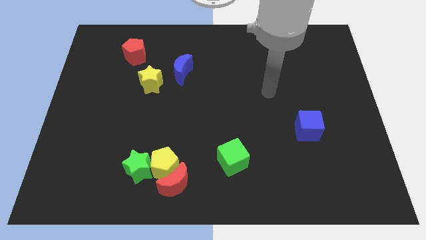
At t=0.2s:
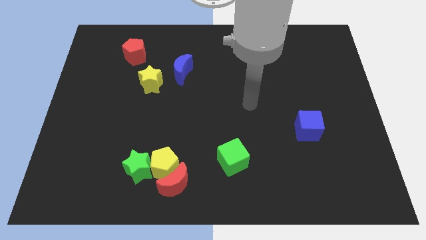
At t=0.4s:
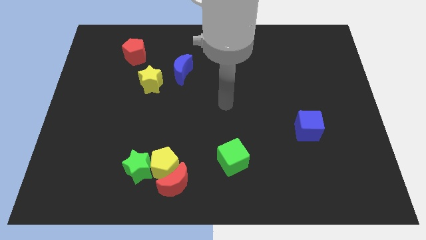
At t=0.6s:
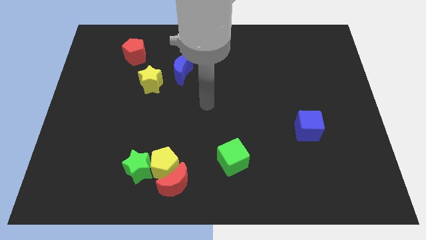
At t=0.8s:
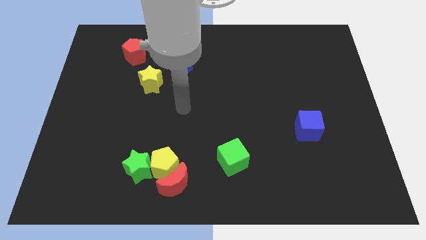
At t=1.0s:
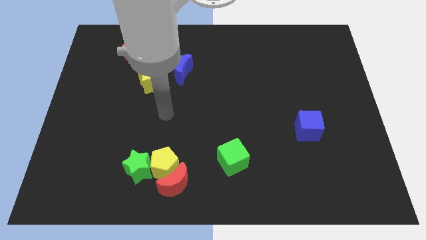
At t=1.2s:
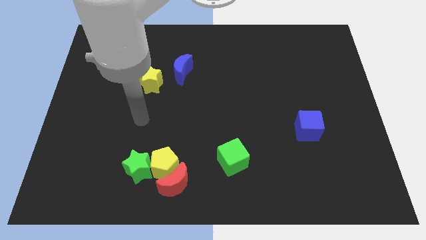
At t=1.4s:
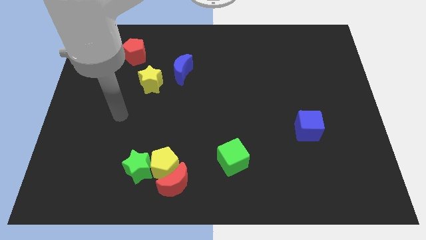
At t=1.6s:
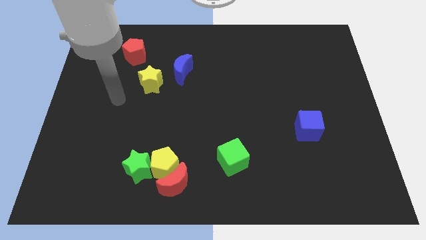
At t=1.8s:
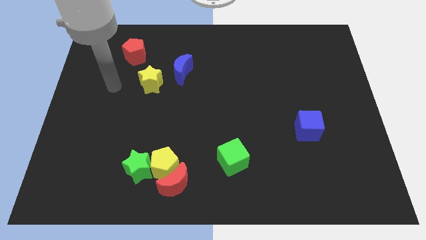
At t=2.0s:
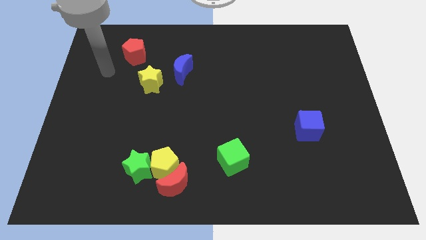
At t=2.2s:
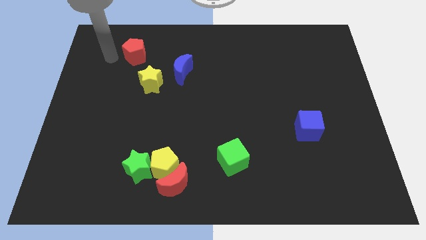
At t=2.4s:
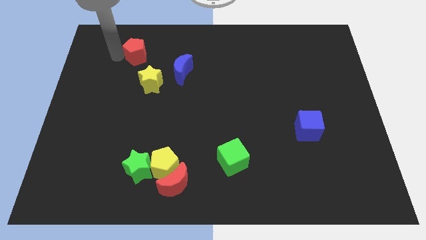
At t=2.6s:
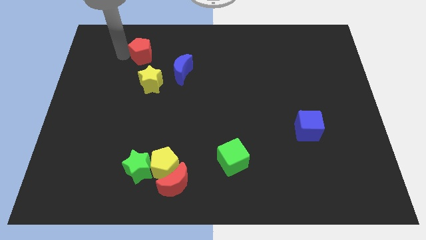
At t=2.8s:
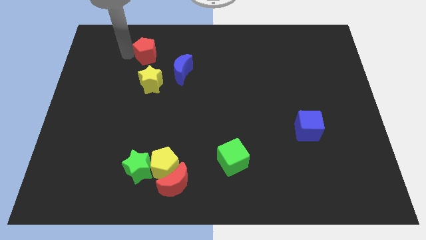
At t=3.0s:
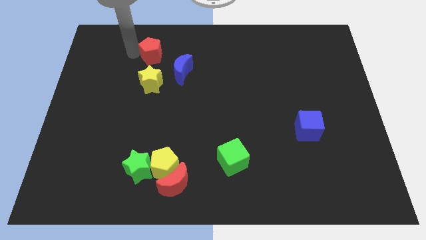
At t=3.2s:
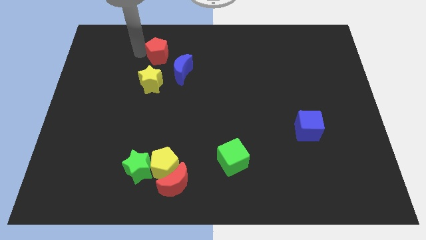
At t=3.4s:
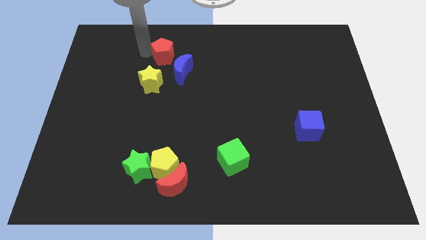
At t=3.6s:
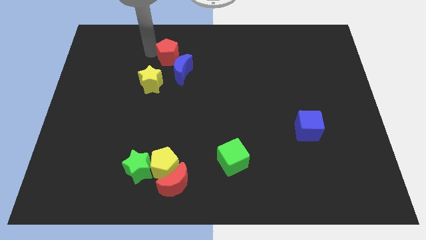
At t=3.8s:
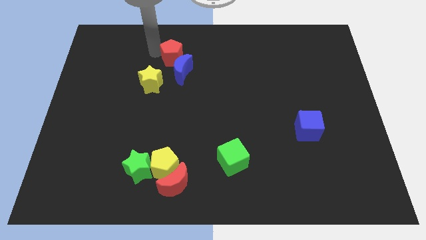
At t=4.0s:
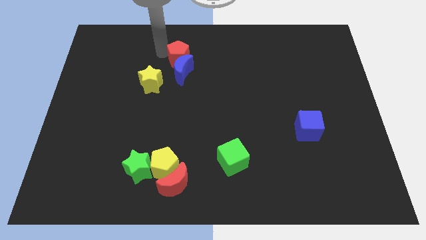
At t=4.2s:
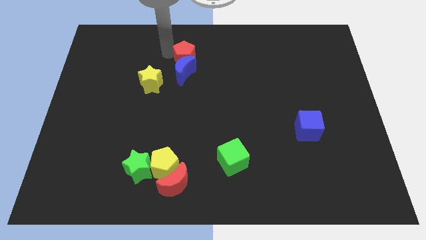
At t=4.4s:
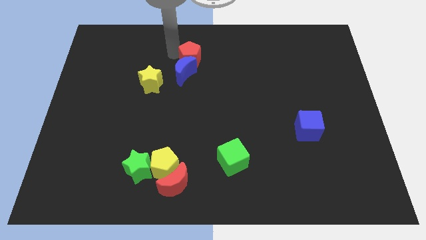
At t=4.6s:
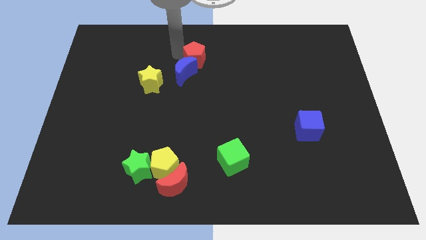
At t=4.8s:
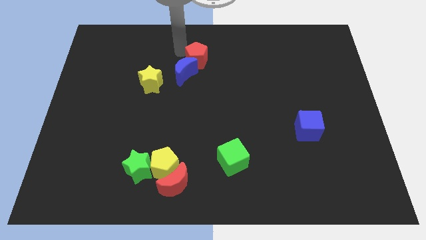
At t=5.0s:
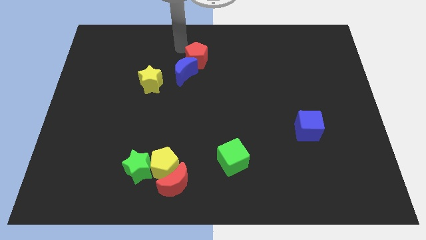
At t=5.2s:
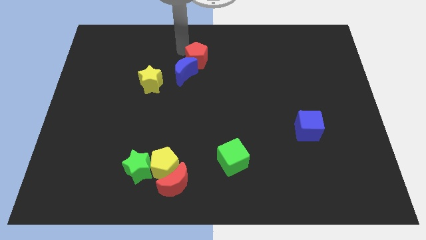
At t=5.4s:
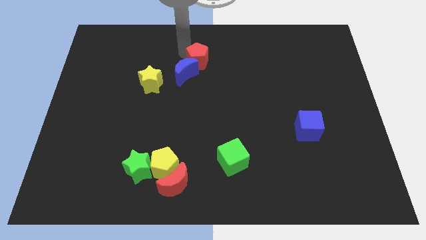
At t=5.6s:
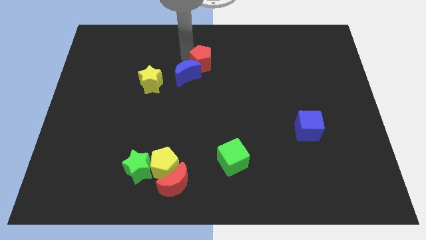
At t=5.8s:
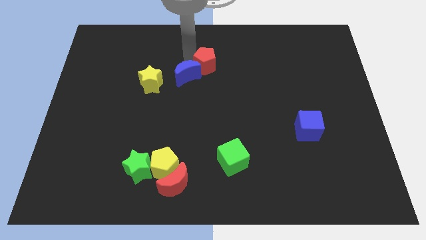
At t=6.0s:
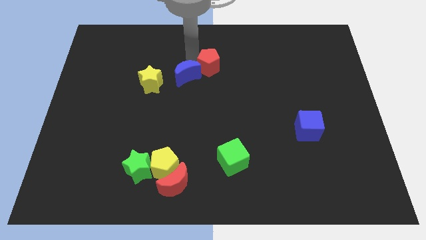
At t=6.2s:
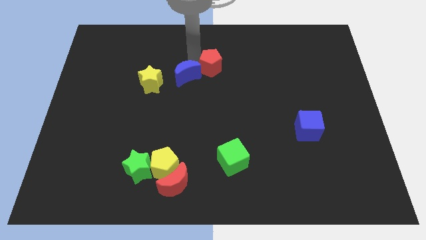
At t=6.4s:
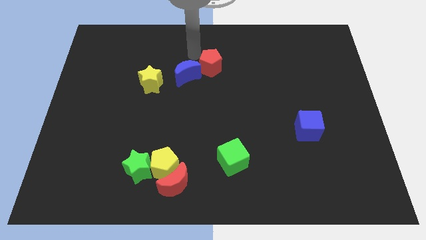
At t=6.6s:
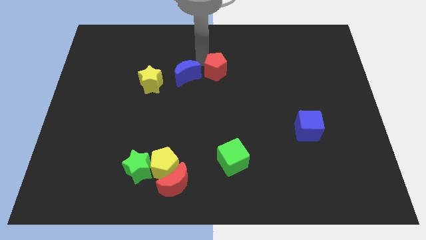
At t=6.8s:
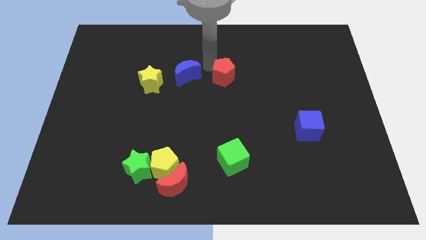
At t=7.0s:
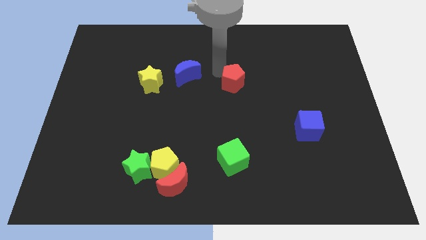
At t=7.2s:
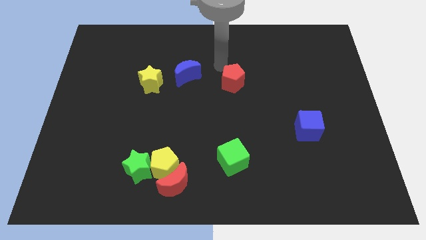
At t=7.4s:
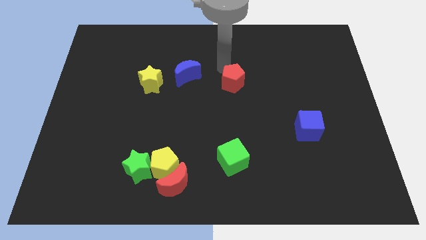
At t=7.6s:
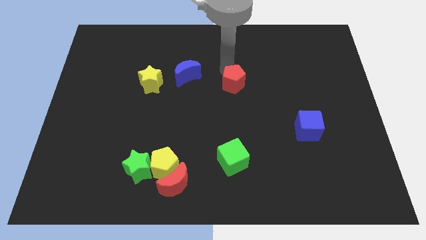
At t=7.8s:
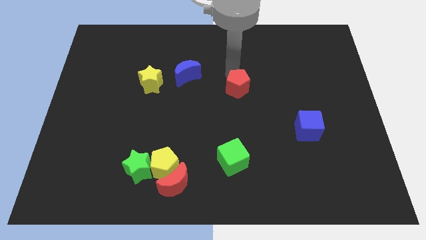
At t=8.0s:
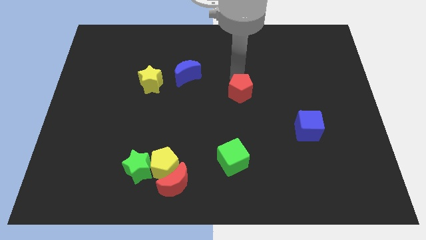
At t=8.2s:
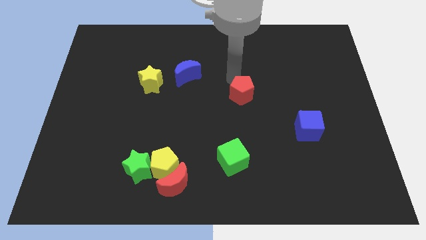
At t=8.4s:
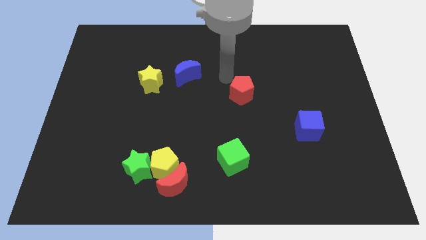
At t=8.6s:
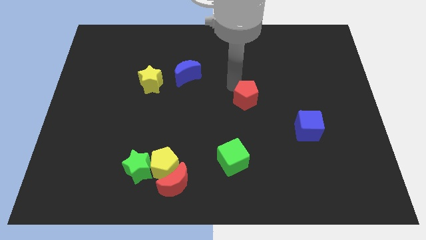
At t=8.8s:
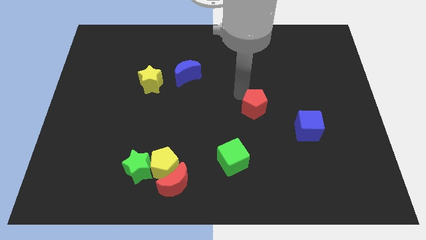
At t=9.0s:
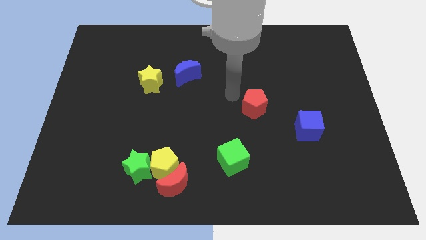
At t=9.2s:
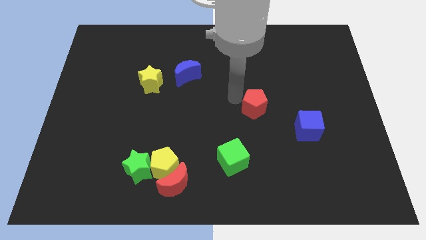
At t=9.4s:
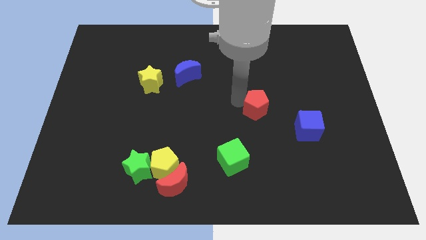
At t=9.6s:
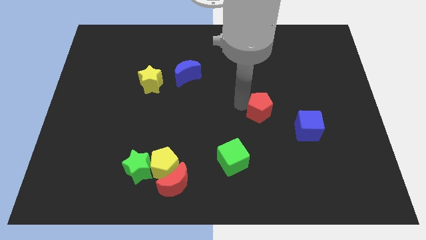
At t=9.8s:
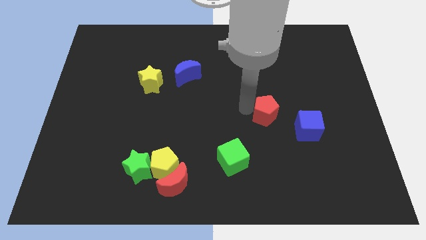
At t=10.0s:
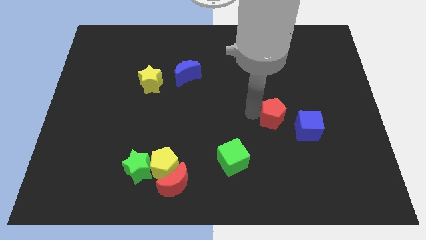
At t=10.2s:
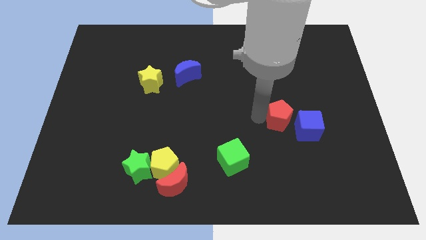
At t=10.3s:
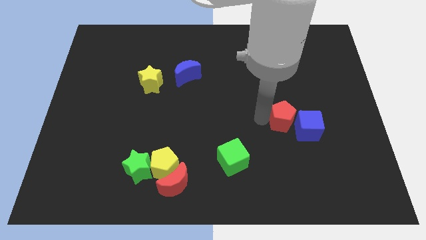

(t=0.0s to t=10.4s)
move the red pentagon to the blue cube

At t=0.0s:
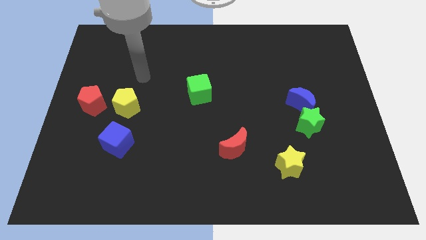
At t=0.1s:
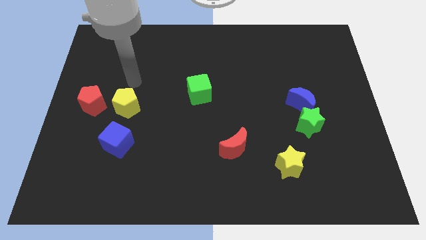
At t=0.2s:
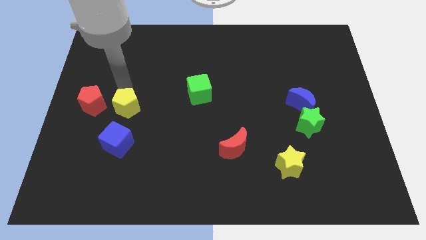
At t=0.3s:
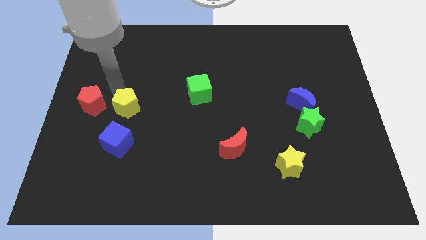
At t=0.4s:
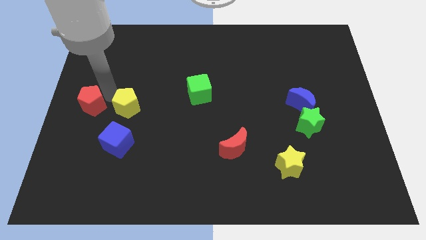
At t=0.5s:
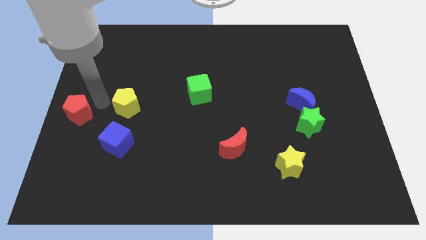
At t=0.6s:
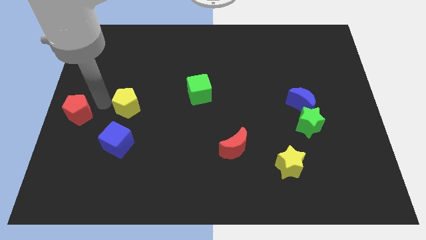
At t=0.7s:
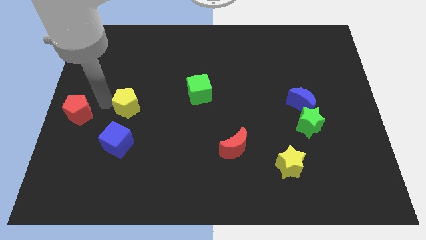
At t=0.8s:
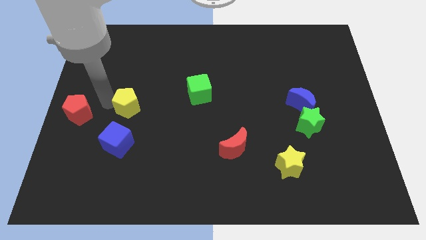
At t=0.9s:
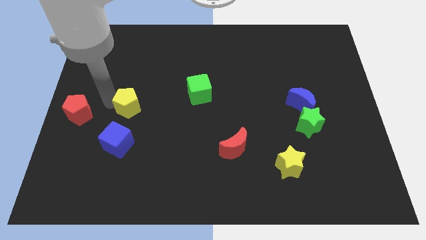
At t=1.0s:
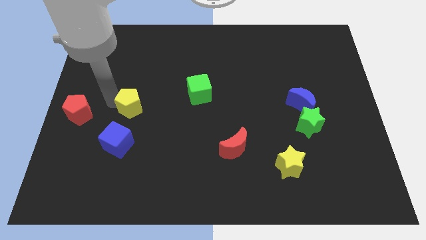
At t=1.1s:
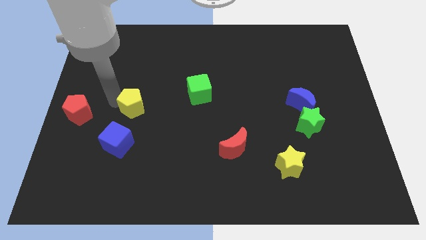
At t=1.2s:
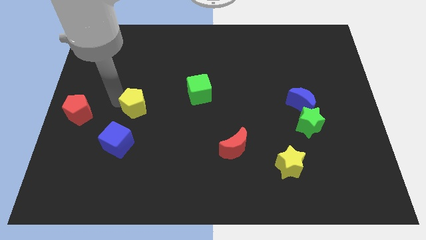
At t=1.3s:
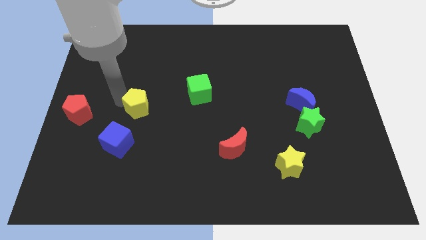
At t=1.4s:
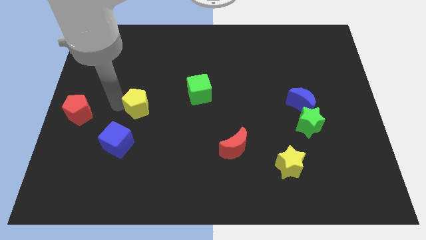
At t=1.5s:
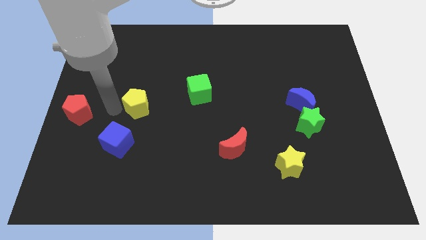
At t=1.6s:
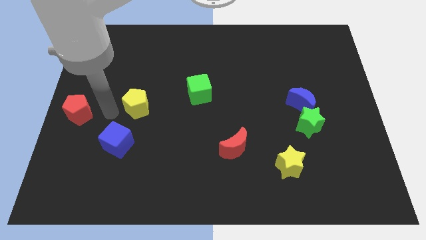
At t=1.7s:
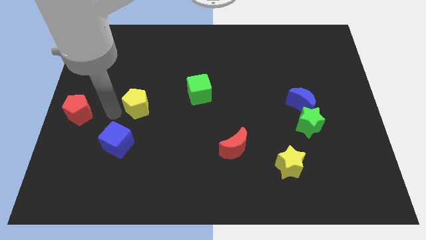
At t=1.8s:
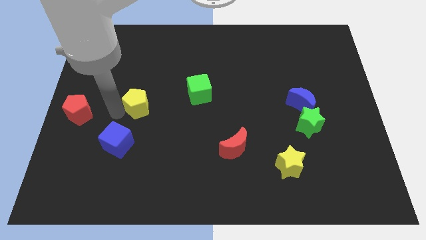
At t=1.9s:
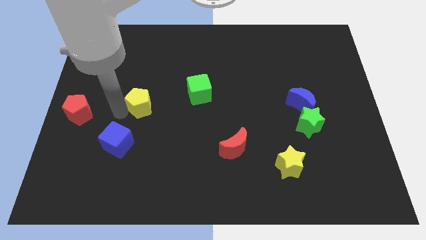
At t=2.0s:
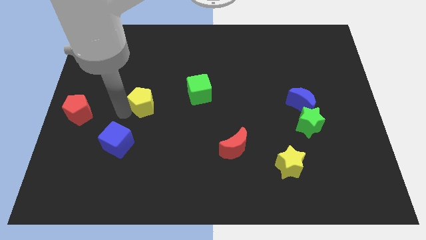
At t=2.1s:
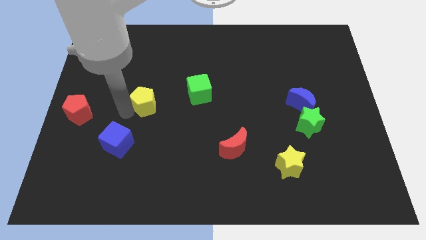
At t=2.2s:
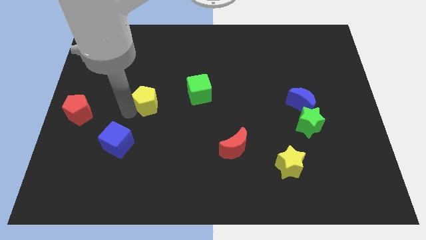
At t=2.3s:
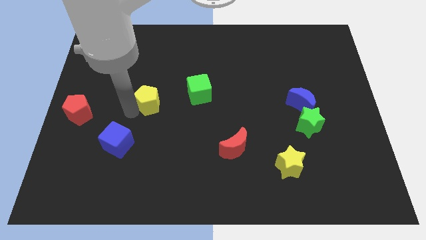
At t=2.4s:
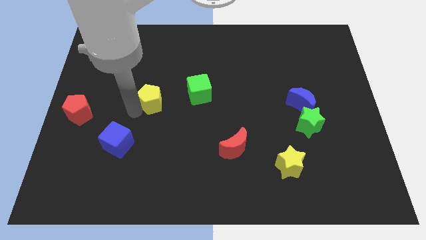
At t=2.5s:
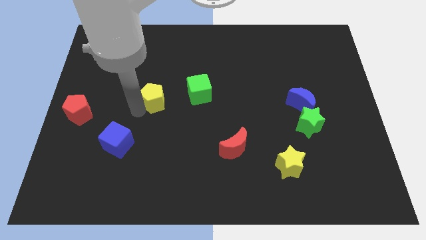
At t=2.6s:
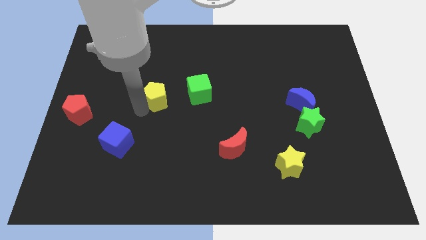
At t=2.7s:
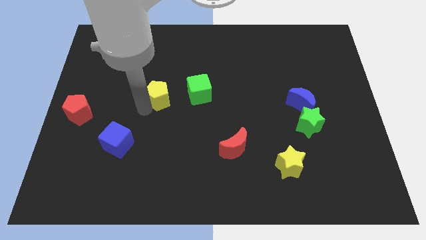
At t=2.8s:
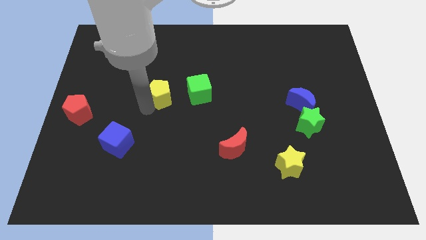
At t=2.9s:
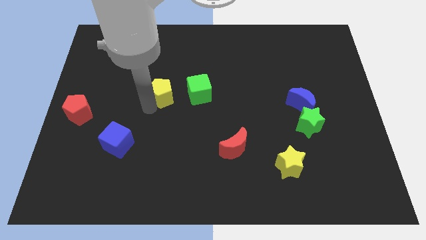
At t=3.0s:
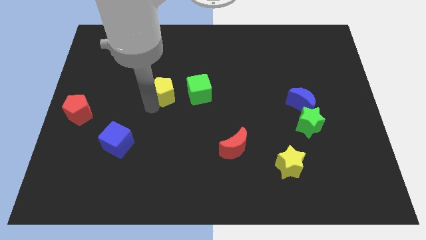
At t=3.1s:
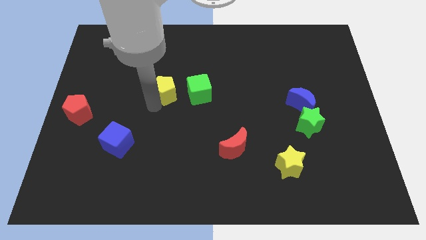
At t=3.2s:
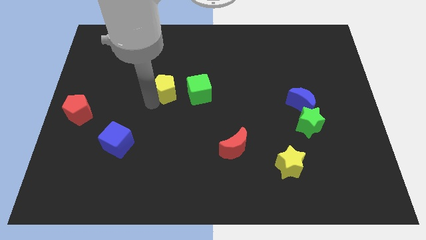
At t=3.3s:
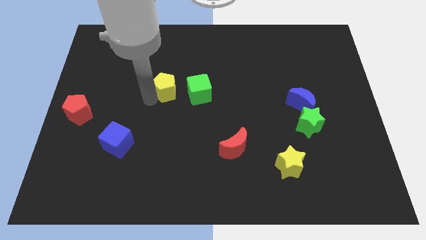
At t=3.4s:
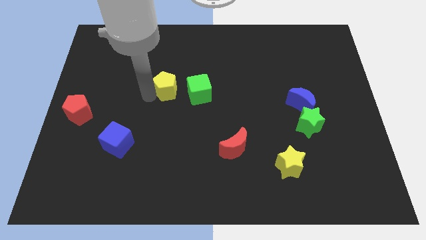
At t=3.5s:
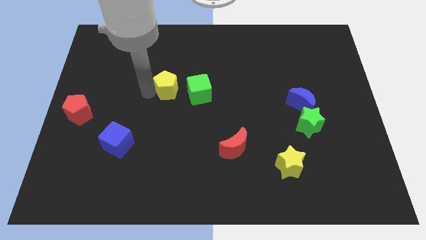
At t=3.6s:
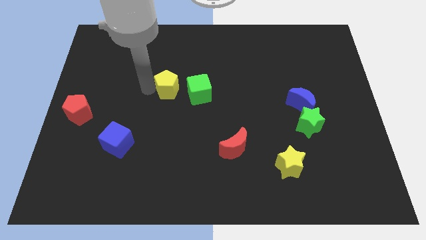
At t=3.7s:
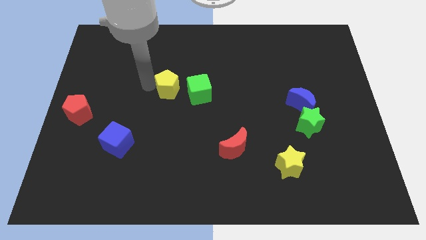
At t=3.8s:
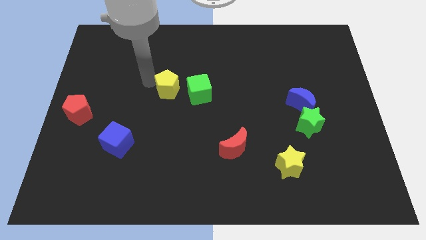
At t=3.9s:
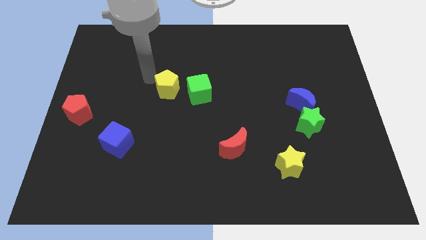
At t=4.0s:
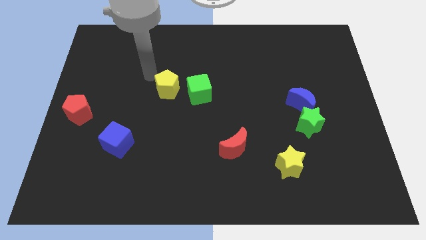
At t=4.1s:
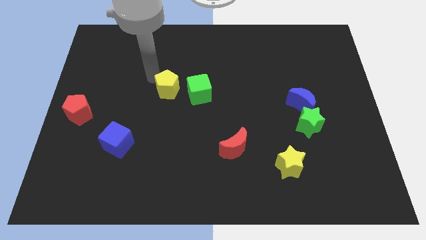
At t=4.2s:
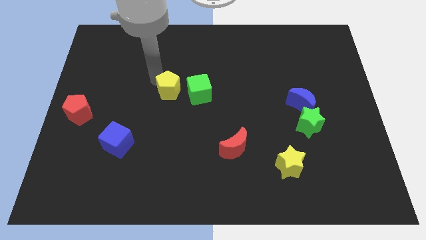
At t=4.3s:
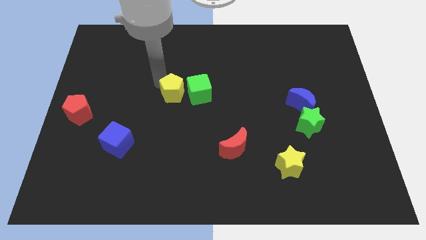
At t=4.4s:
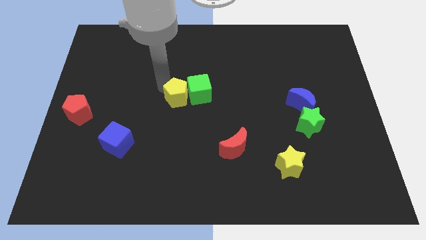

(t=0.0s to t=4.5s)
put the yellow pentagon towards the green cube
